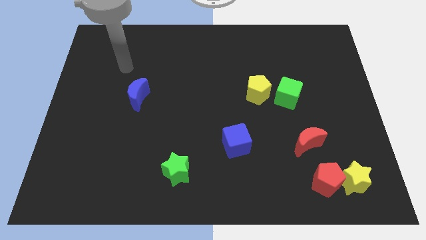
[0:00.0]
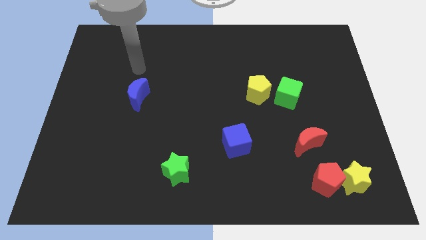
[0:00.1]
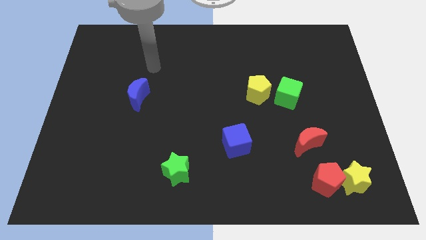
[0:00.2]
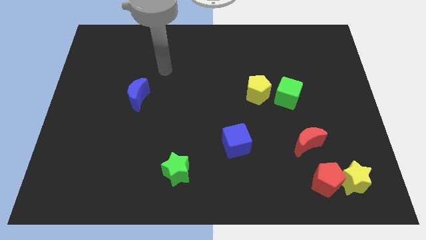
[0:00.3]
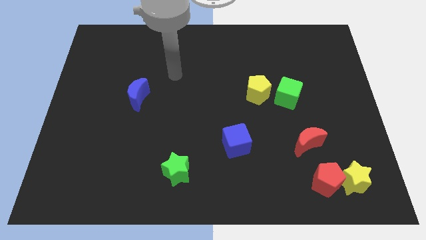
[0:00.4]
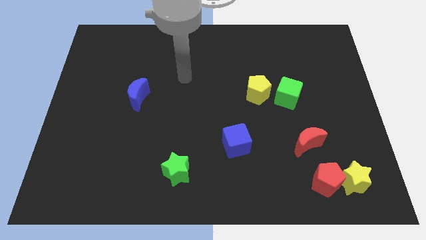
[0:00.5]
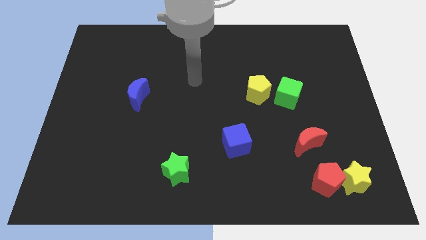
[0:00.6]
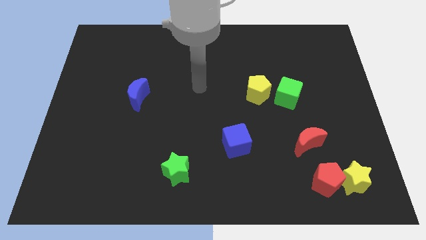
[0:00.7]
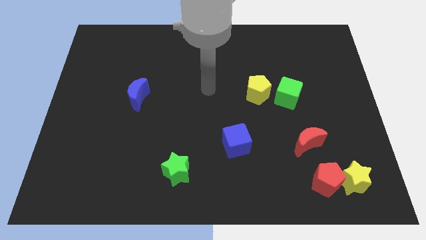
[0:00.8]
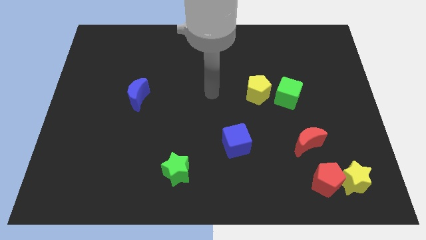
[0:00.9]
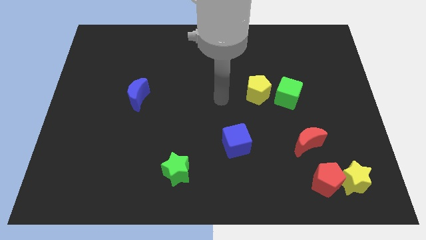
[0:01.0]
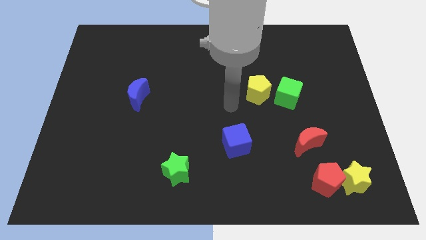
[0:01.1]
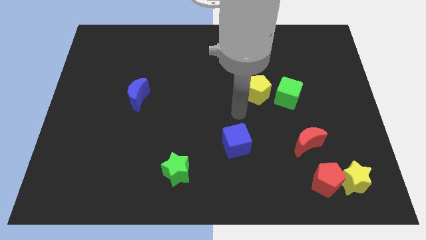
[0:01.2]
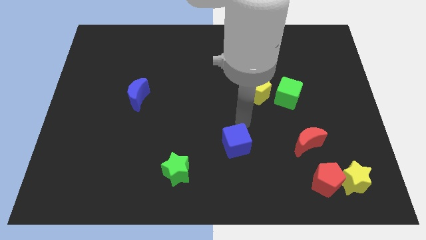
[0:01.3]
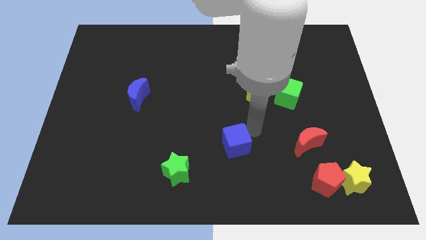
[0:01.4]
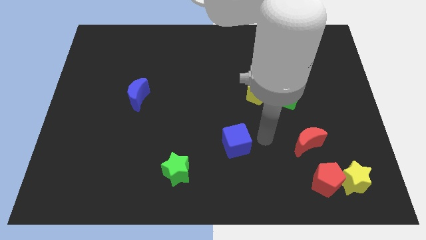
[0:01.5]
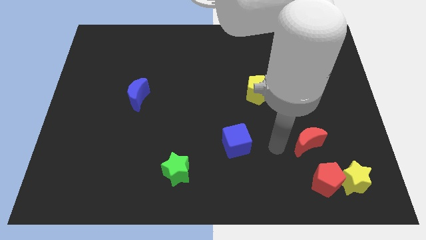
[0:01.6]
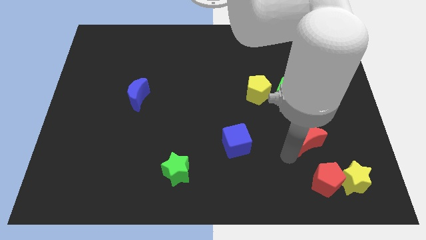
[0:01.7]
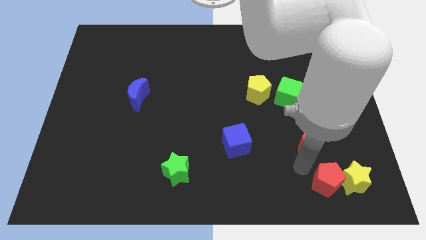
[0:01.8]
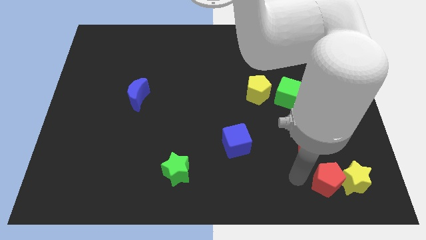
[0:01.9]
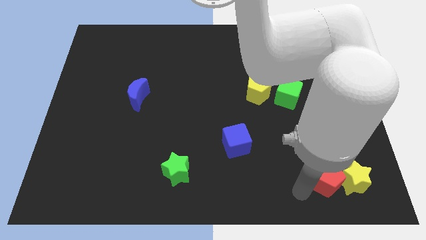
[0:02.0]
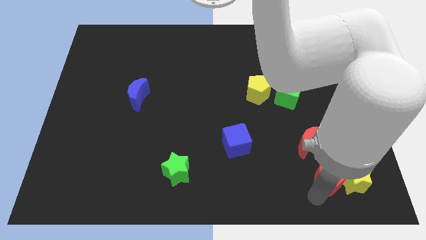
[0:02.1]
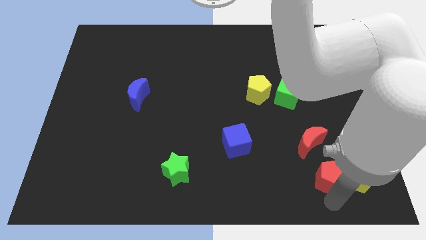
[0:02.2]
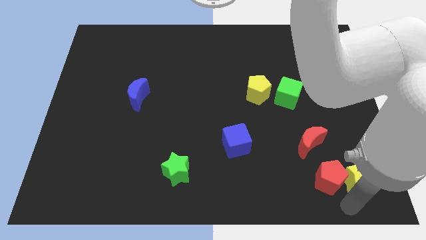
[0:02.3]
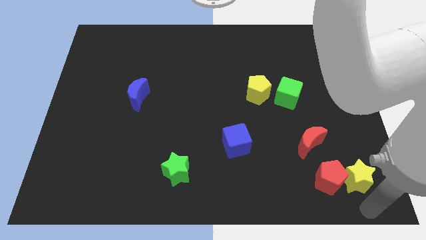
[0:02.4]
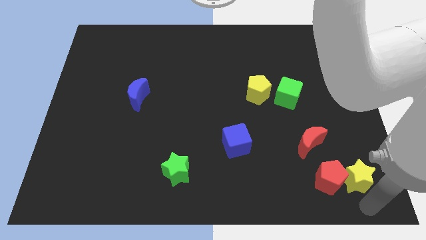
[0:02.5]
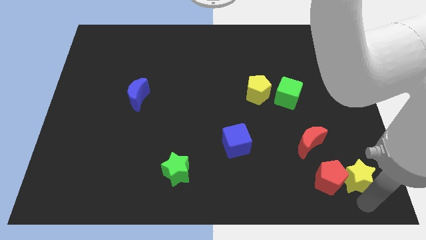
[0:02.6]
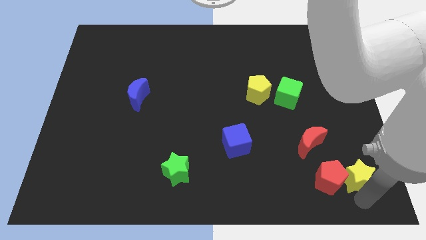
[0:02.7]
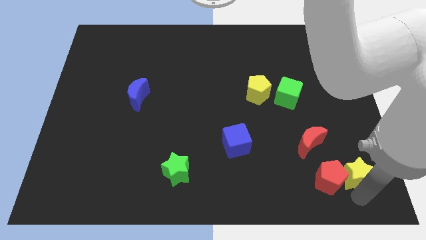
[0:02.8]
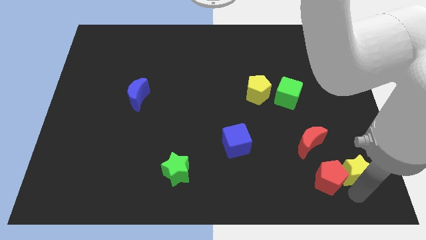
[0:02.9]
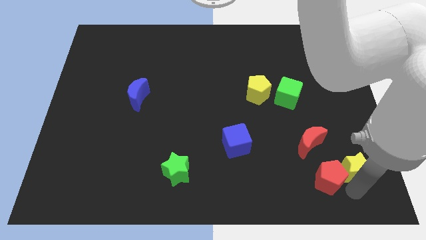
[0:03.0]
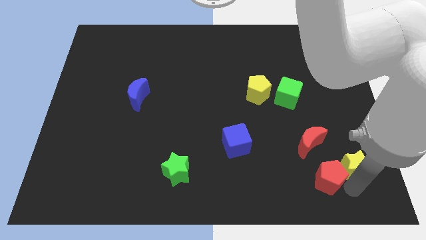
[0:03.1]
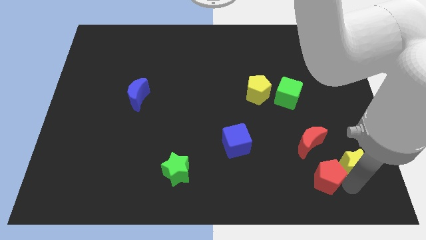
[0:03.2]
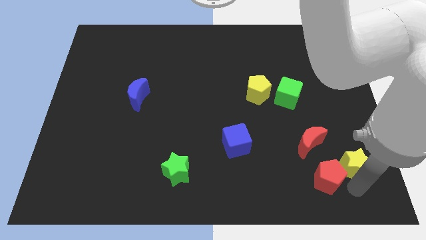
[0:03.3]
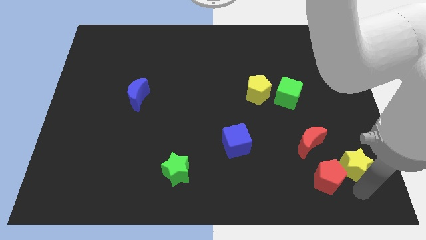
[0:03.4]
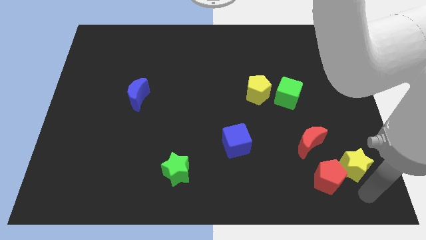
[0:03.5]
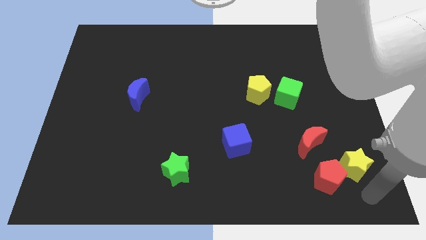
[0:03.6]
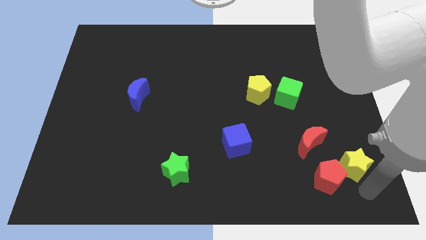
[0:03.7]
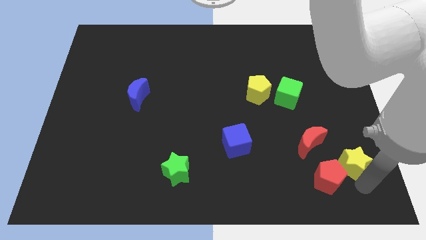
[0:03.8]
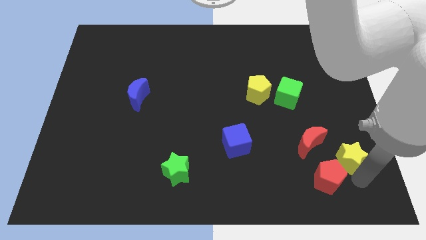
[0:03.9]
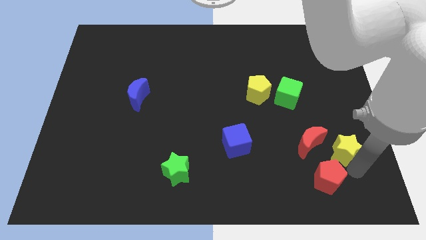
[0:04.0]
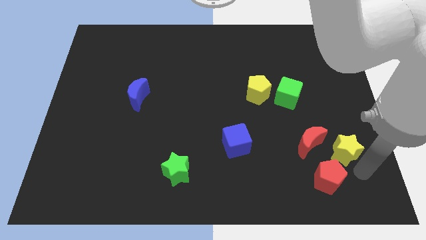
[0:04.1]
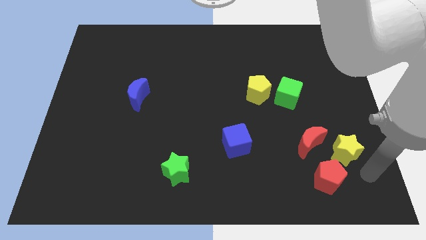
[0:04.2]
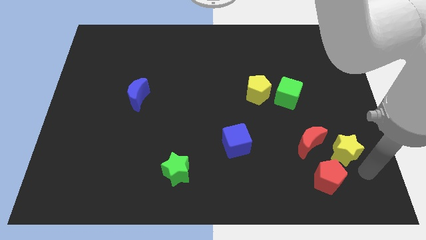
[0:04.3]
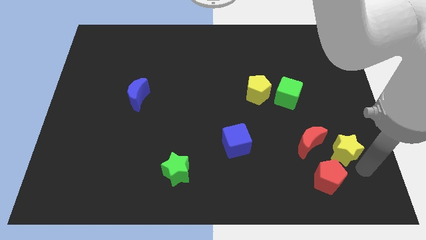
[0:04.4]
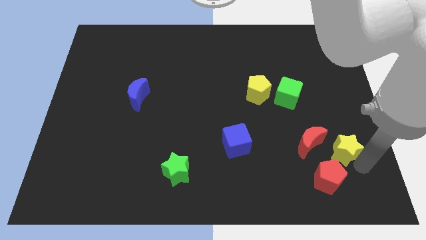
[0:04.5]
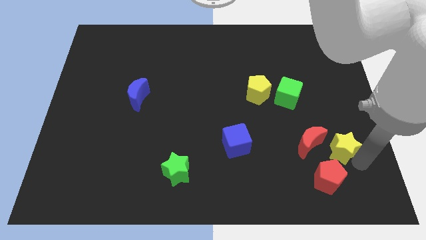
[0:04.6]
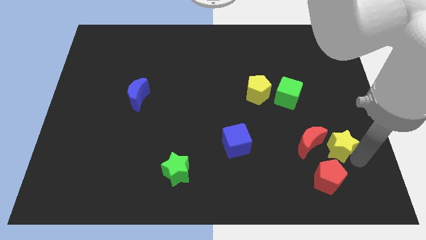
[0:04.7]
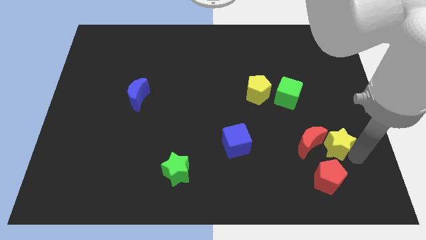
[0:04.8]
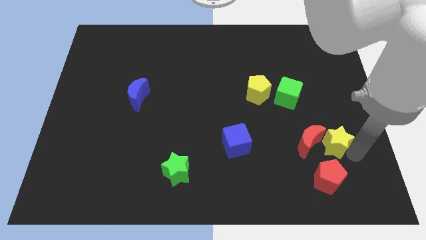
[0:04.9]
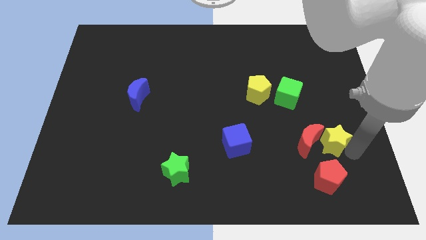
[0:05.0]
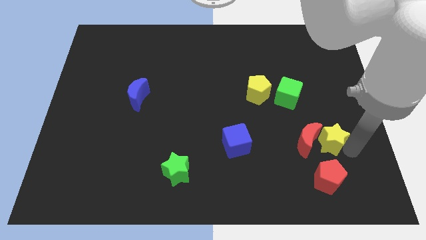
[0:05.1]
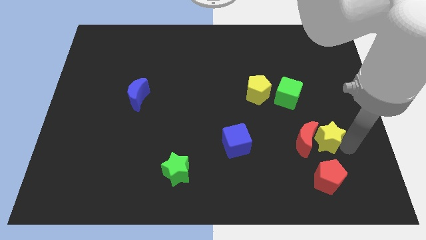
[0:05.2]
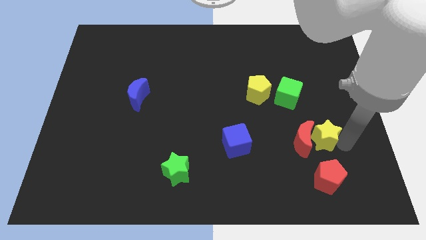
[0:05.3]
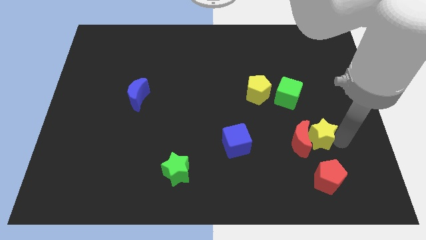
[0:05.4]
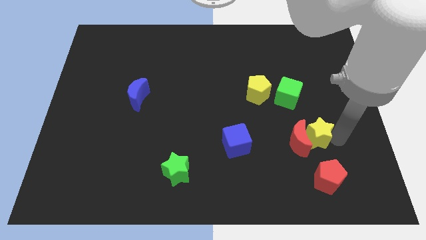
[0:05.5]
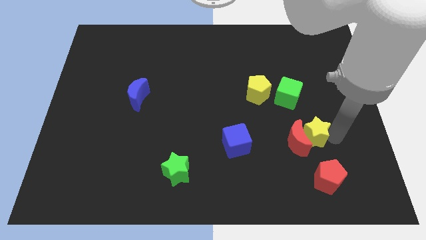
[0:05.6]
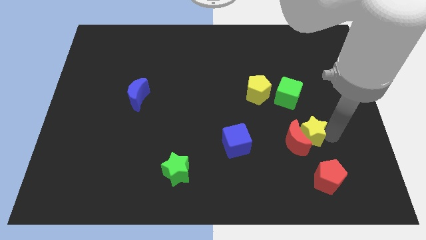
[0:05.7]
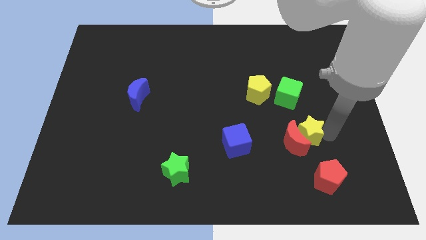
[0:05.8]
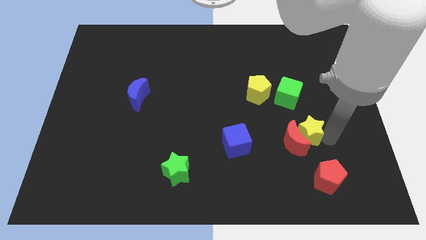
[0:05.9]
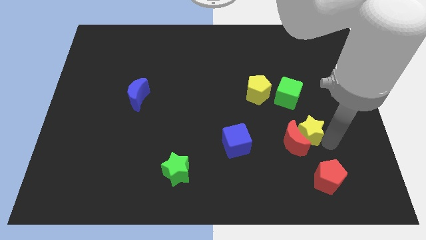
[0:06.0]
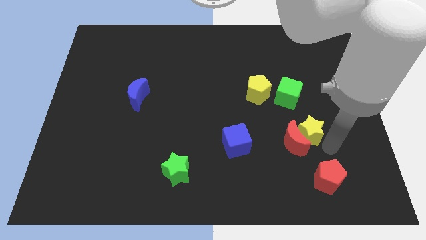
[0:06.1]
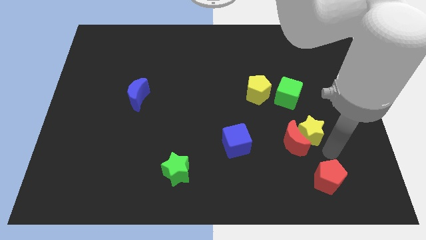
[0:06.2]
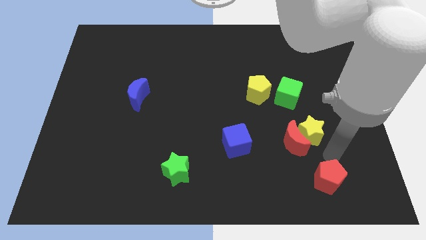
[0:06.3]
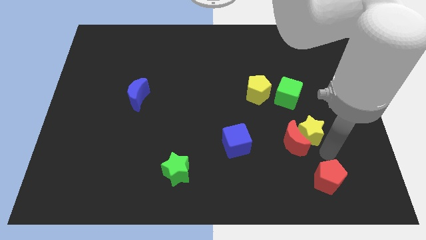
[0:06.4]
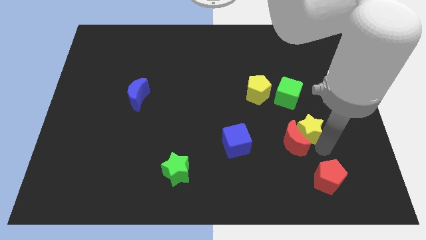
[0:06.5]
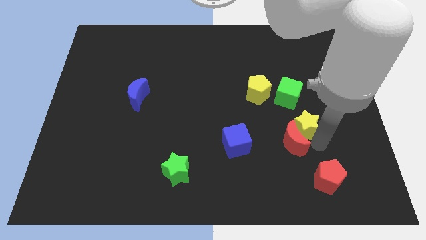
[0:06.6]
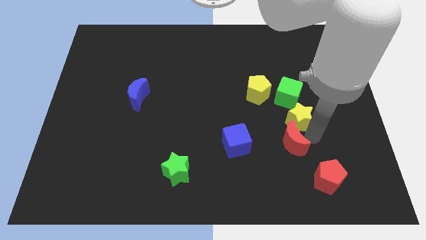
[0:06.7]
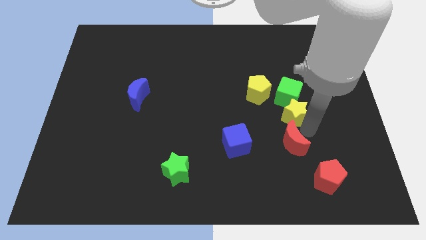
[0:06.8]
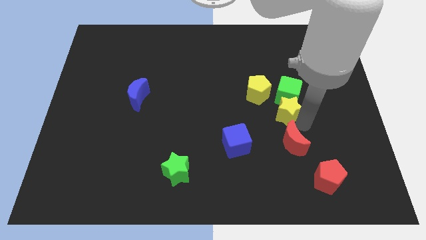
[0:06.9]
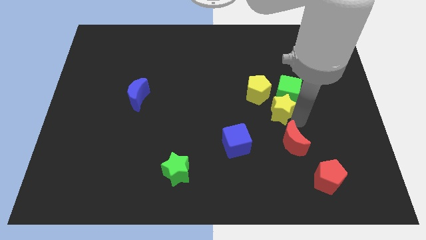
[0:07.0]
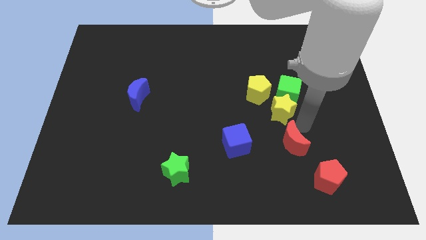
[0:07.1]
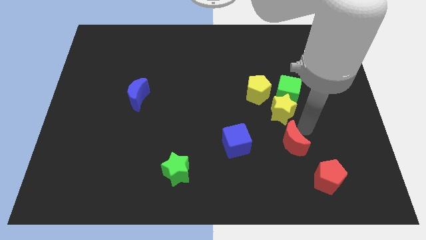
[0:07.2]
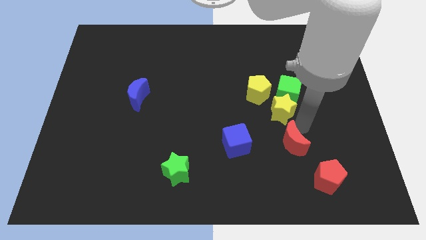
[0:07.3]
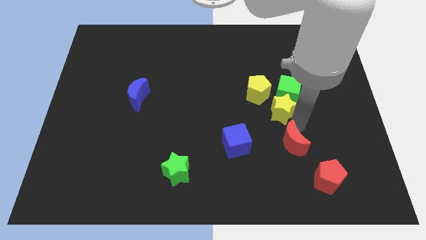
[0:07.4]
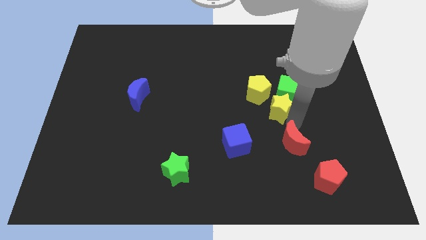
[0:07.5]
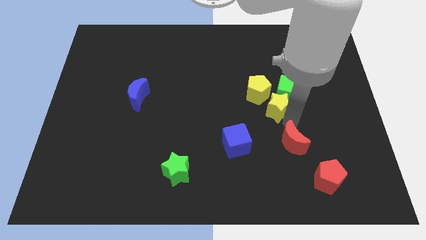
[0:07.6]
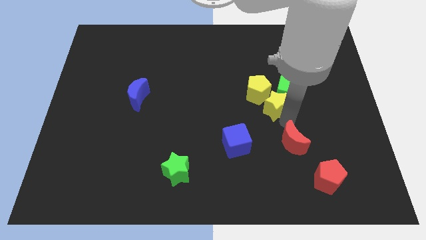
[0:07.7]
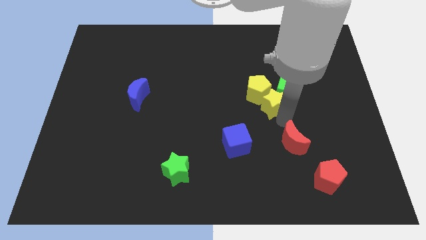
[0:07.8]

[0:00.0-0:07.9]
put the yellow star towards the yellow pentagon
